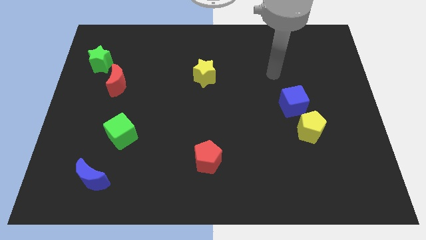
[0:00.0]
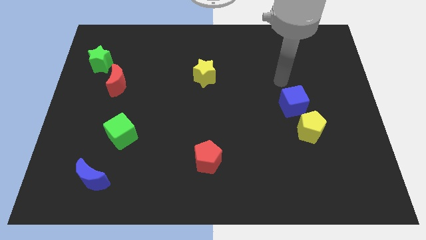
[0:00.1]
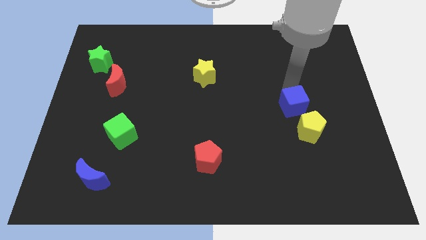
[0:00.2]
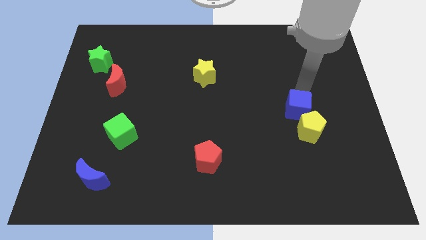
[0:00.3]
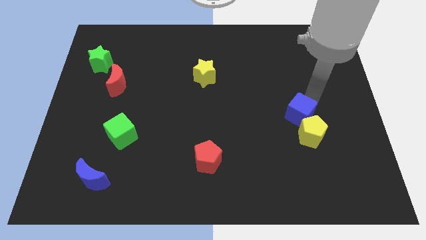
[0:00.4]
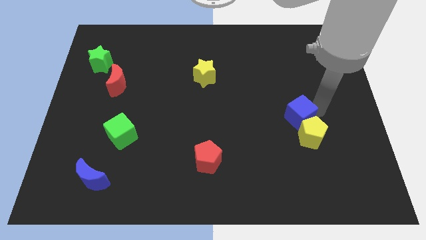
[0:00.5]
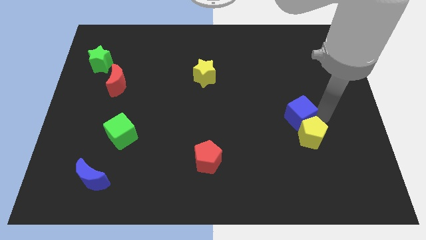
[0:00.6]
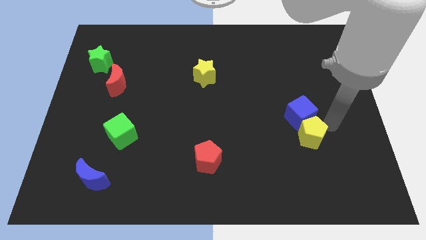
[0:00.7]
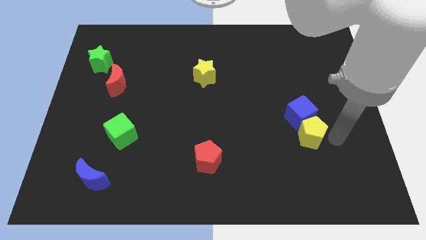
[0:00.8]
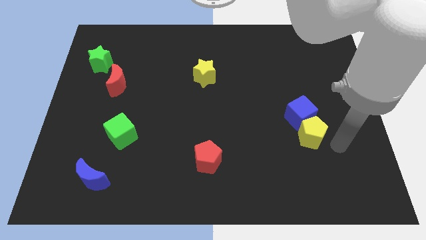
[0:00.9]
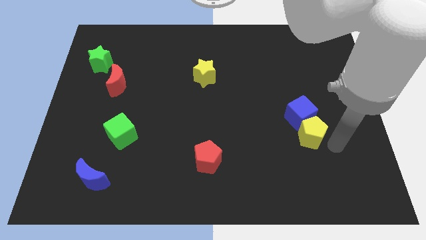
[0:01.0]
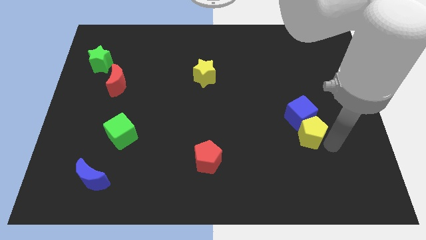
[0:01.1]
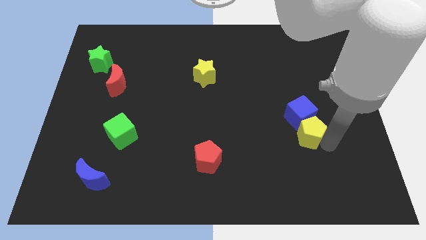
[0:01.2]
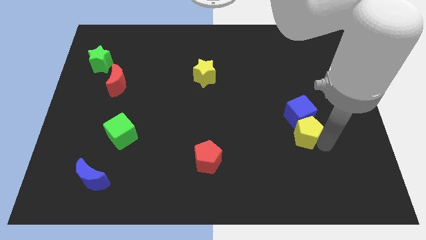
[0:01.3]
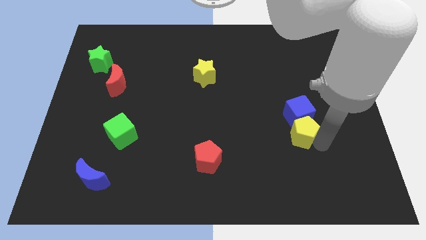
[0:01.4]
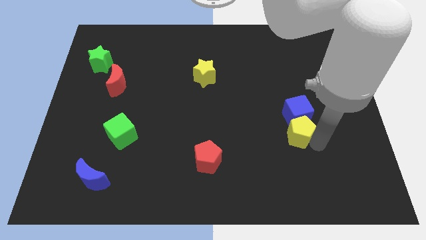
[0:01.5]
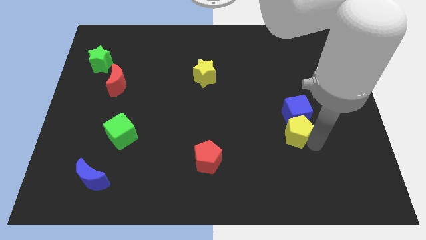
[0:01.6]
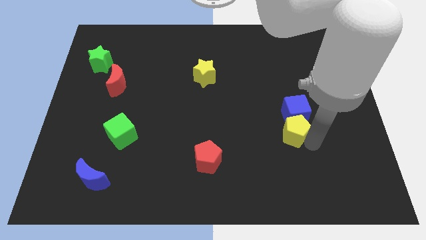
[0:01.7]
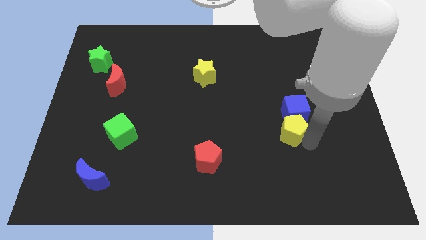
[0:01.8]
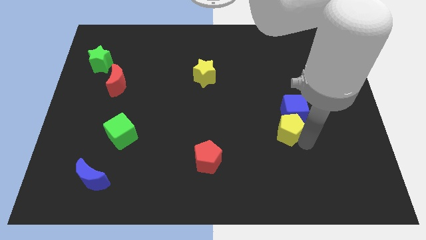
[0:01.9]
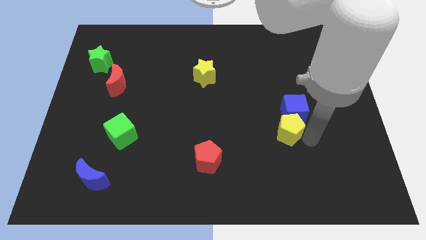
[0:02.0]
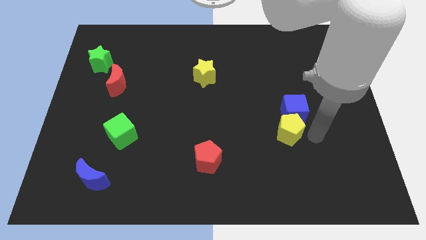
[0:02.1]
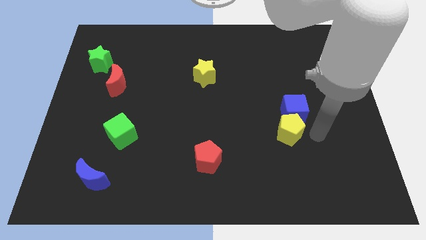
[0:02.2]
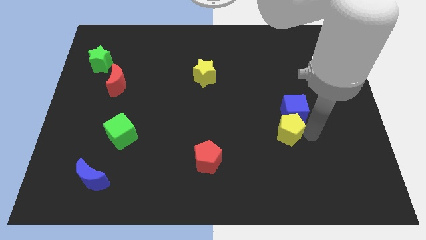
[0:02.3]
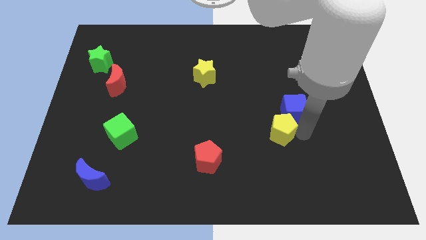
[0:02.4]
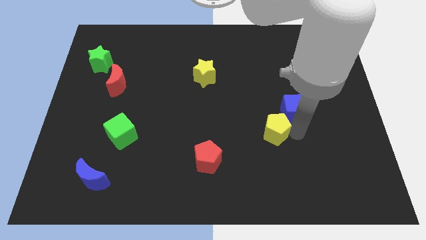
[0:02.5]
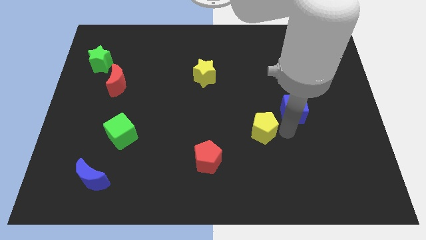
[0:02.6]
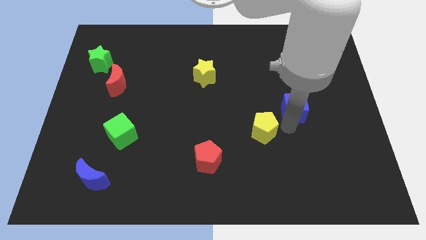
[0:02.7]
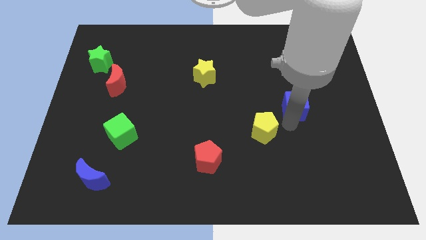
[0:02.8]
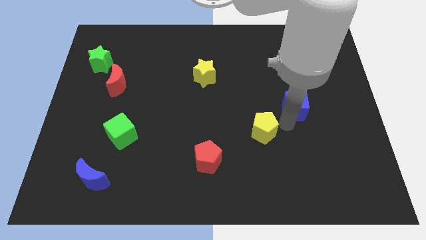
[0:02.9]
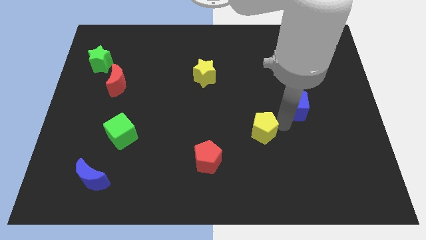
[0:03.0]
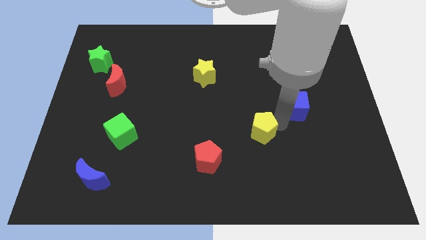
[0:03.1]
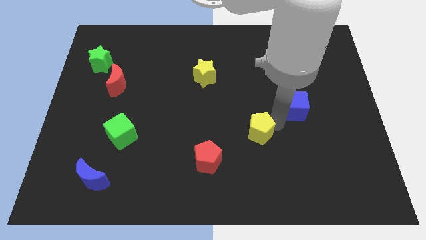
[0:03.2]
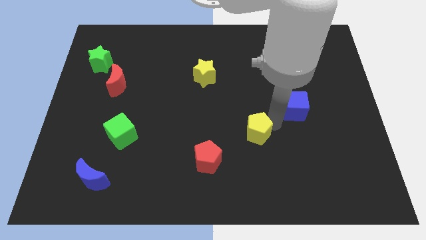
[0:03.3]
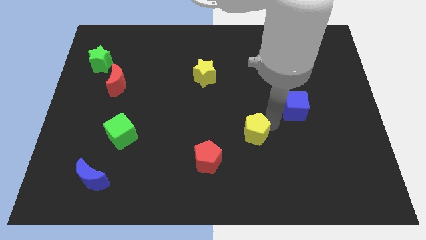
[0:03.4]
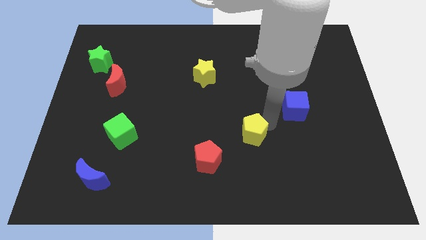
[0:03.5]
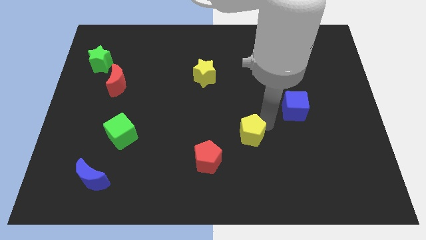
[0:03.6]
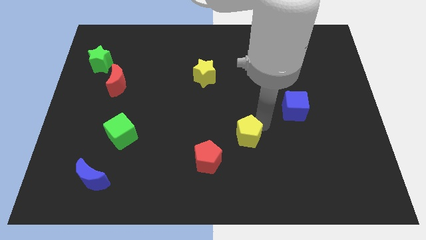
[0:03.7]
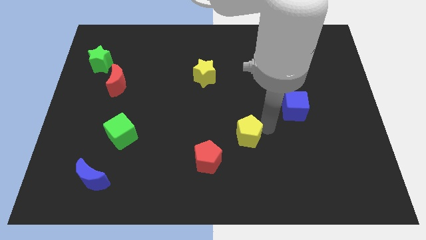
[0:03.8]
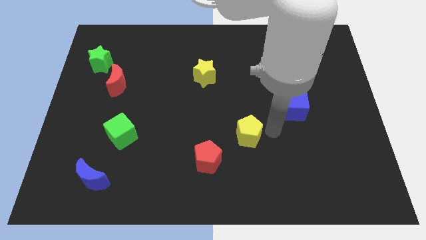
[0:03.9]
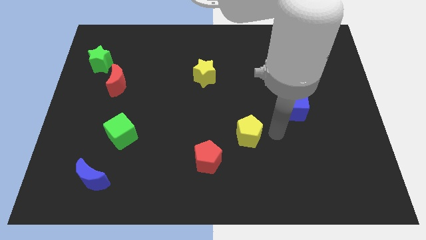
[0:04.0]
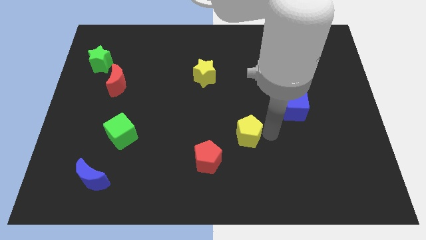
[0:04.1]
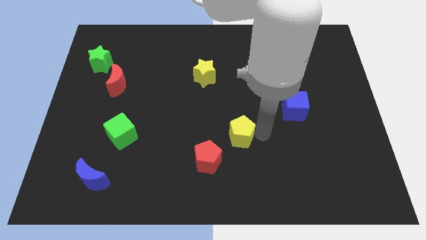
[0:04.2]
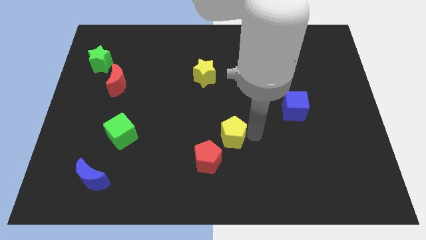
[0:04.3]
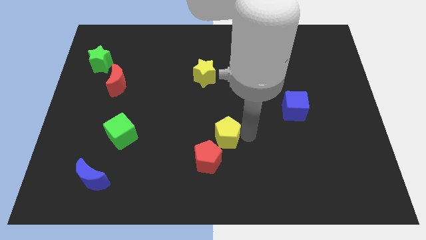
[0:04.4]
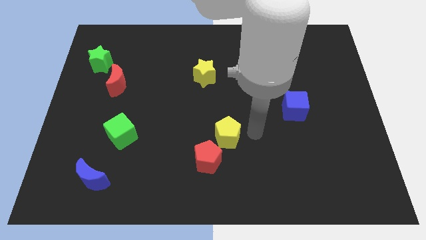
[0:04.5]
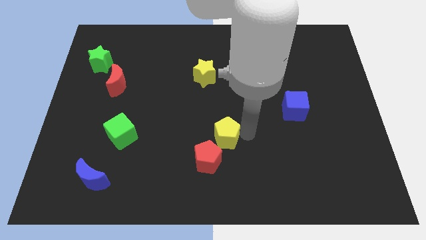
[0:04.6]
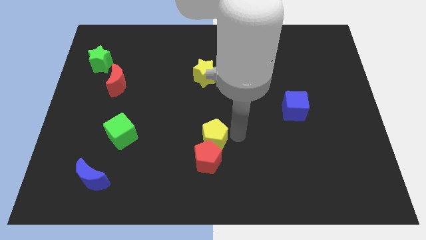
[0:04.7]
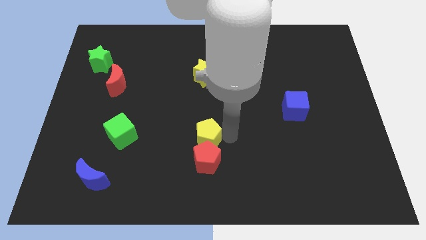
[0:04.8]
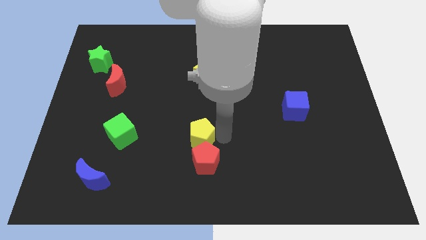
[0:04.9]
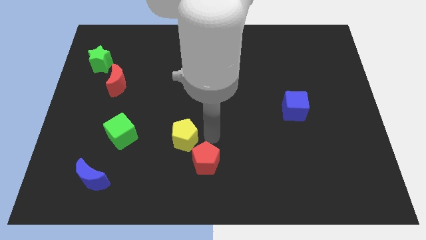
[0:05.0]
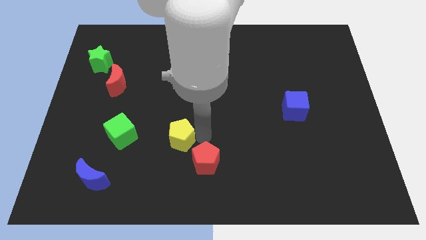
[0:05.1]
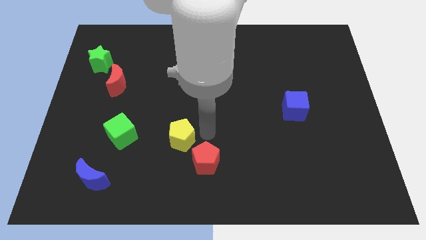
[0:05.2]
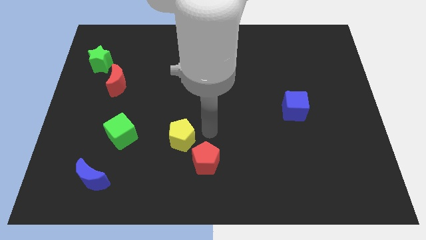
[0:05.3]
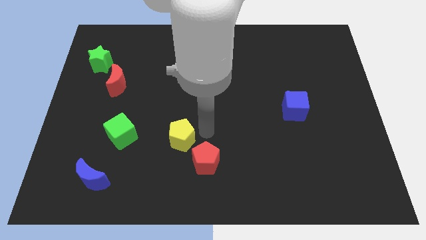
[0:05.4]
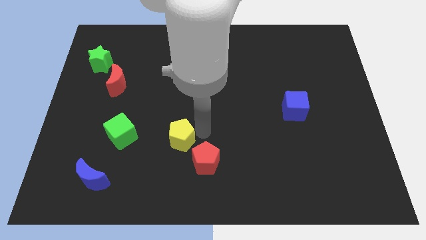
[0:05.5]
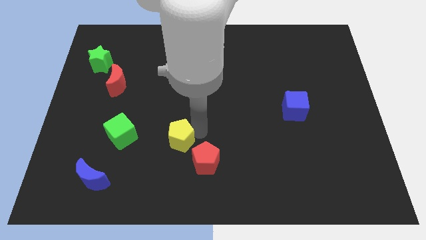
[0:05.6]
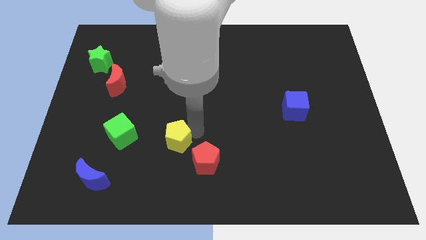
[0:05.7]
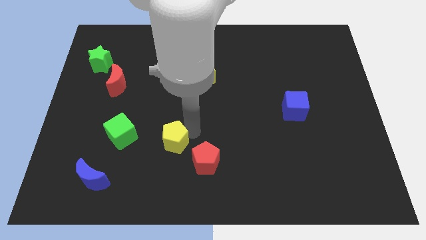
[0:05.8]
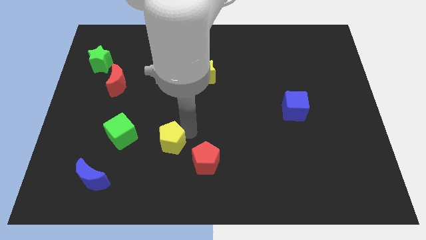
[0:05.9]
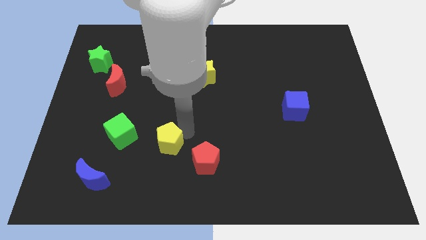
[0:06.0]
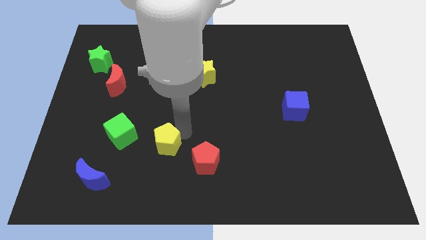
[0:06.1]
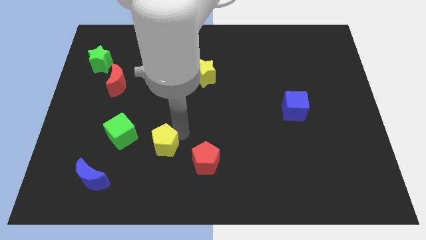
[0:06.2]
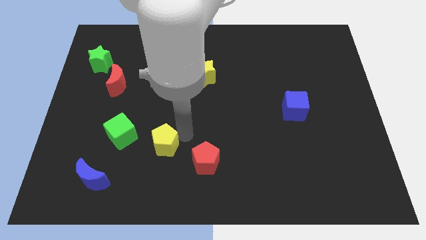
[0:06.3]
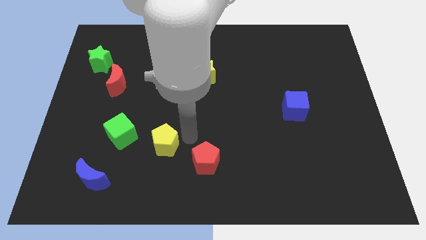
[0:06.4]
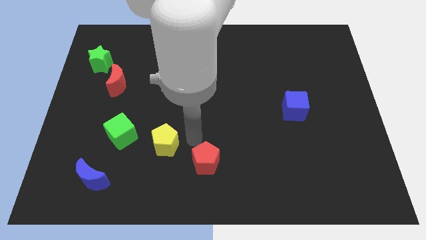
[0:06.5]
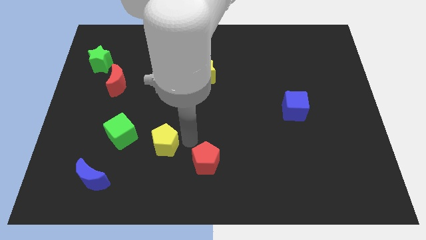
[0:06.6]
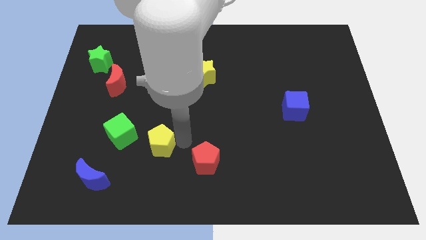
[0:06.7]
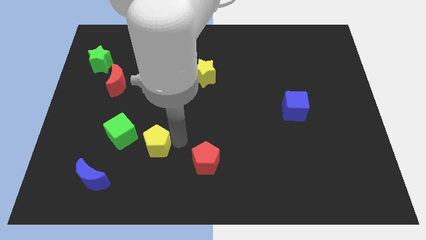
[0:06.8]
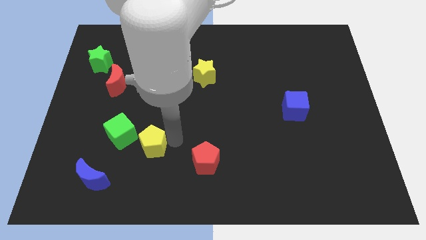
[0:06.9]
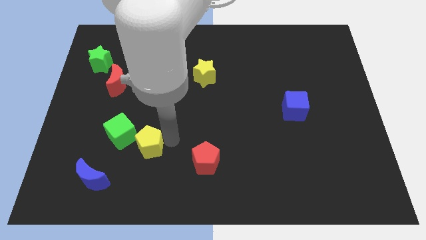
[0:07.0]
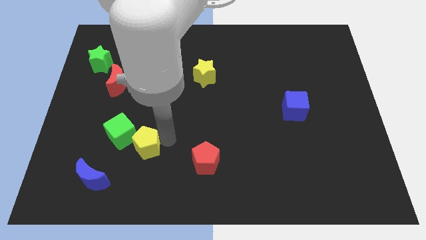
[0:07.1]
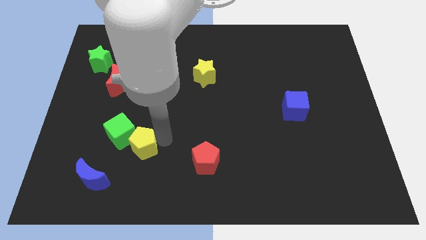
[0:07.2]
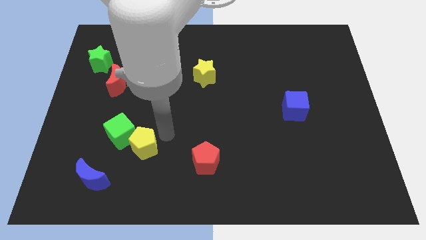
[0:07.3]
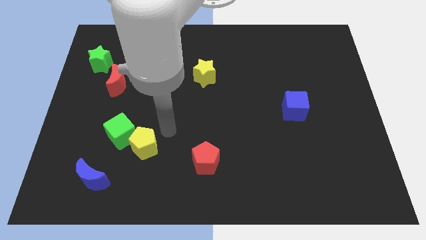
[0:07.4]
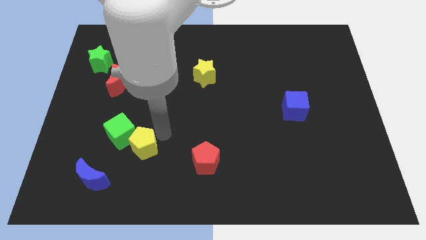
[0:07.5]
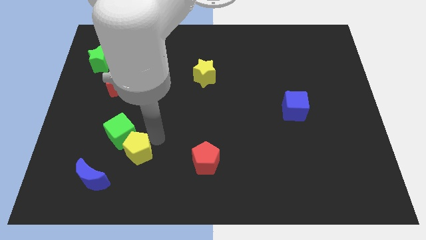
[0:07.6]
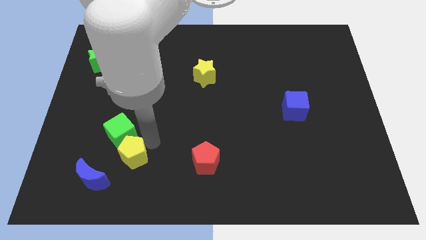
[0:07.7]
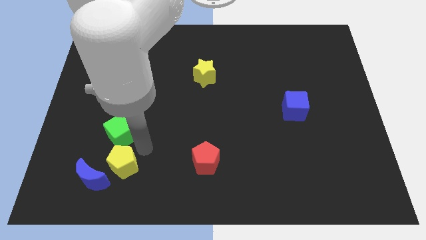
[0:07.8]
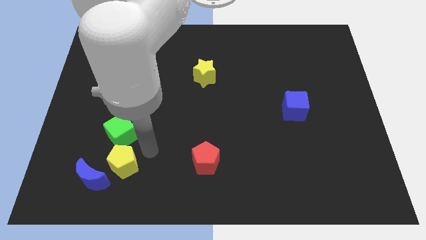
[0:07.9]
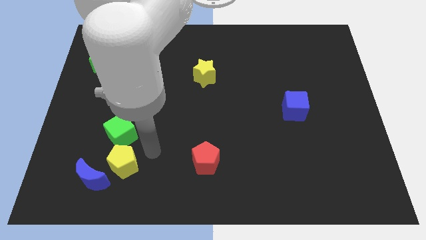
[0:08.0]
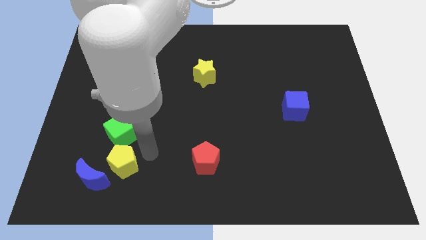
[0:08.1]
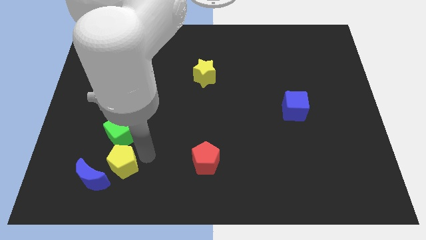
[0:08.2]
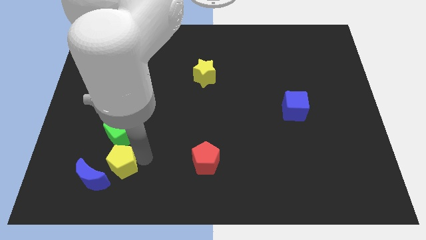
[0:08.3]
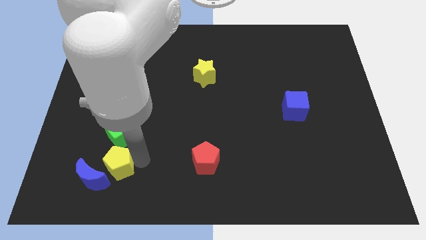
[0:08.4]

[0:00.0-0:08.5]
slide the yellow pentagon close to the blue moon
